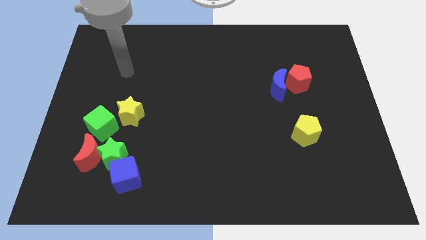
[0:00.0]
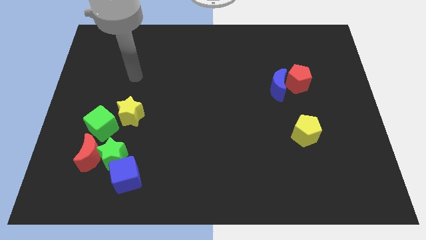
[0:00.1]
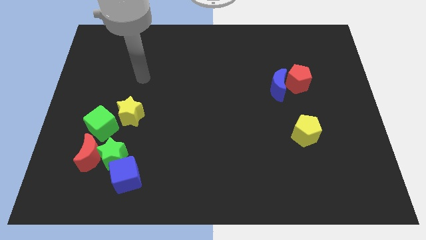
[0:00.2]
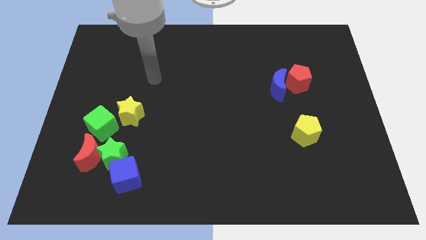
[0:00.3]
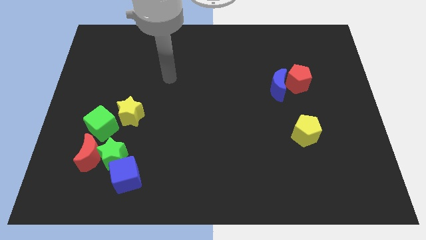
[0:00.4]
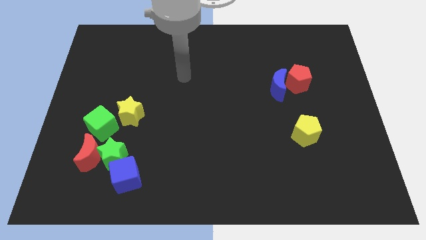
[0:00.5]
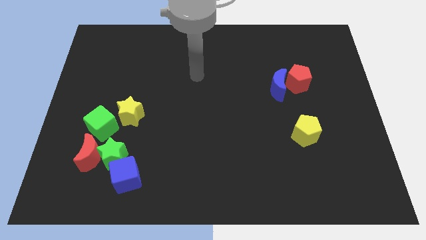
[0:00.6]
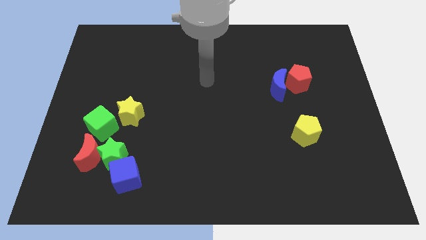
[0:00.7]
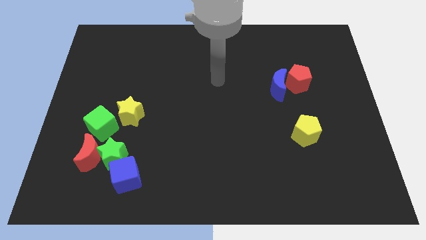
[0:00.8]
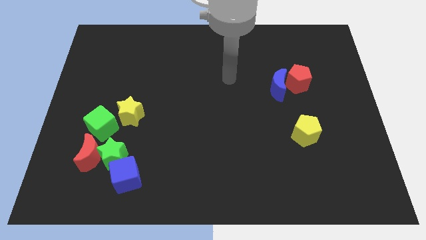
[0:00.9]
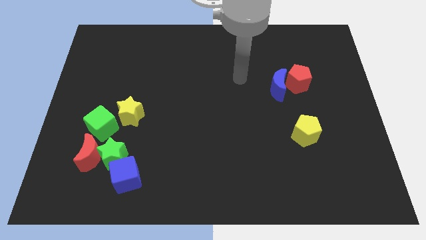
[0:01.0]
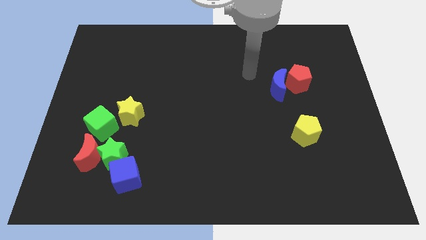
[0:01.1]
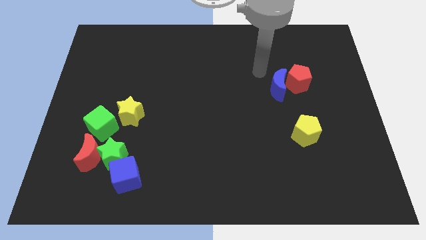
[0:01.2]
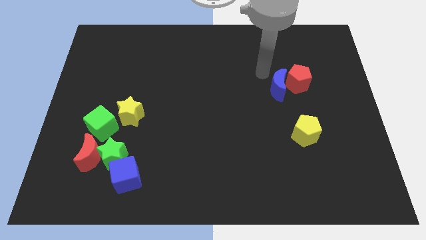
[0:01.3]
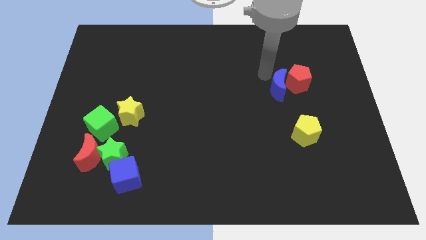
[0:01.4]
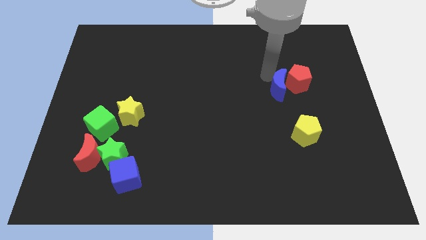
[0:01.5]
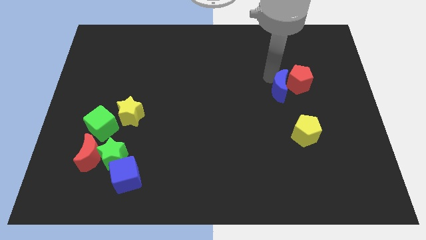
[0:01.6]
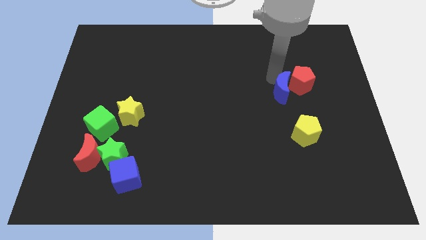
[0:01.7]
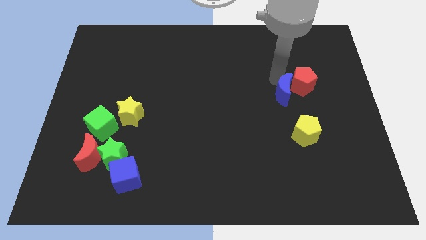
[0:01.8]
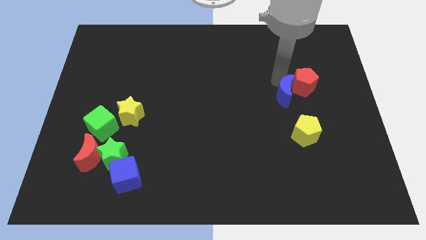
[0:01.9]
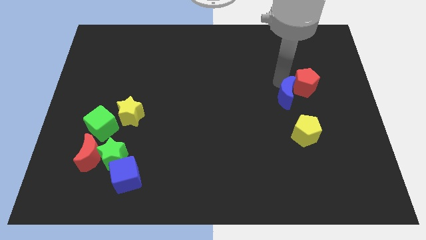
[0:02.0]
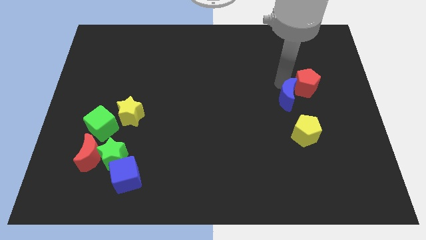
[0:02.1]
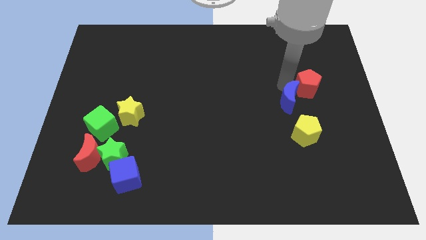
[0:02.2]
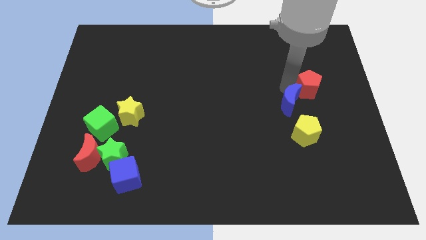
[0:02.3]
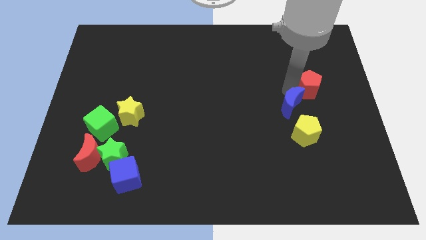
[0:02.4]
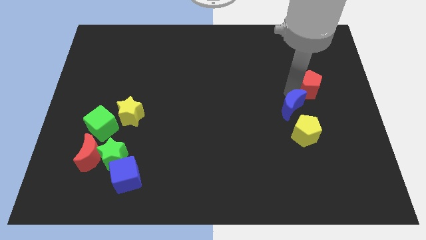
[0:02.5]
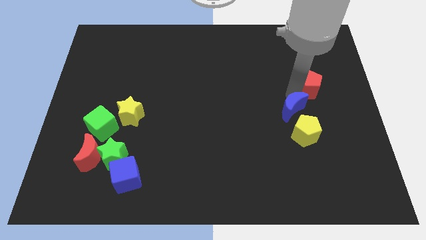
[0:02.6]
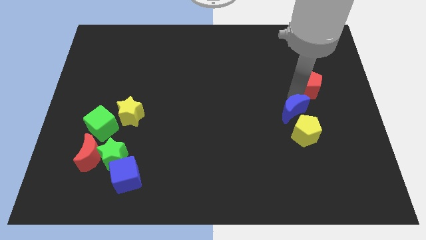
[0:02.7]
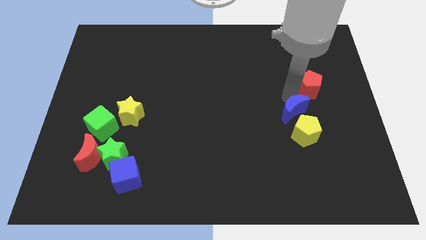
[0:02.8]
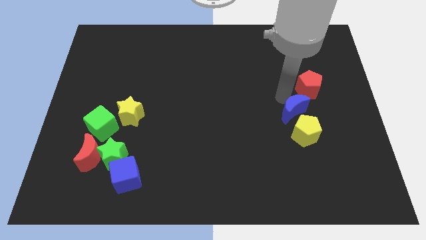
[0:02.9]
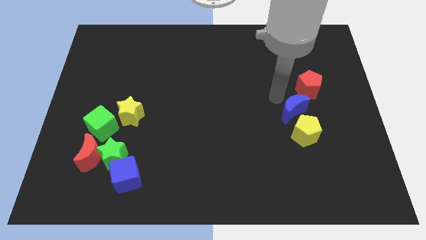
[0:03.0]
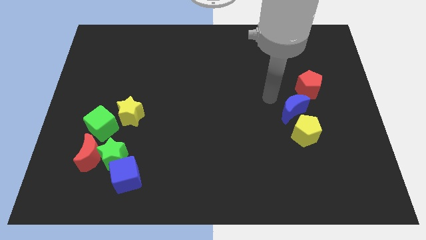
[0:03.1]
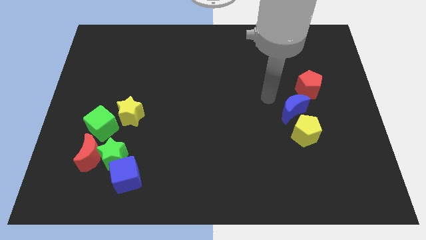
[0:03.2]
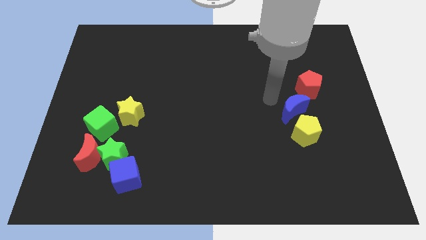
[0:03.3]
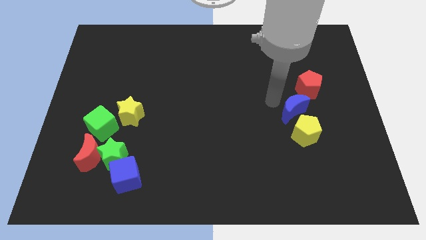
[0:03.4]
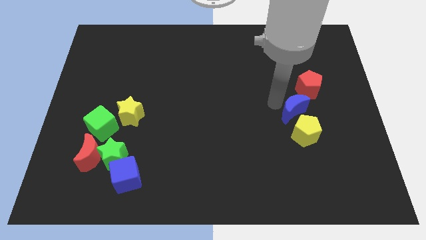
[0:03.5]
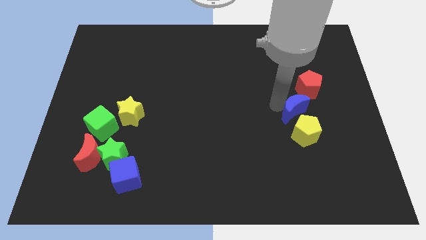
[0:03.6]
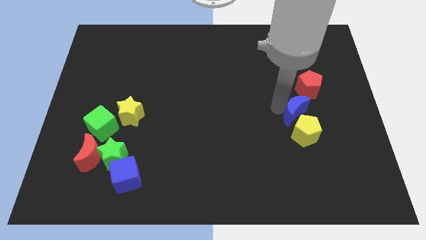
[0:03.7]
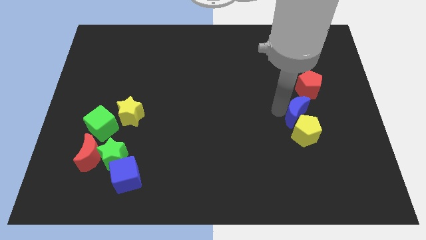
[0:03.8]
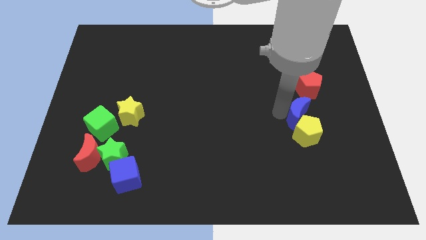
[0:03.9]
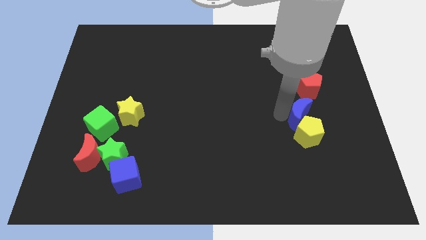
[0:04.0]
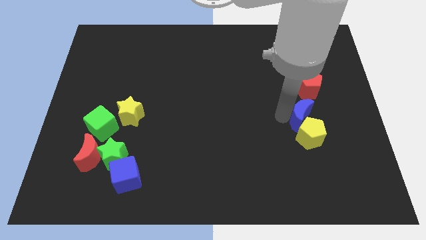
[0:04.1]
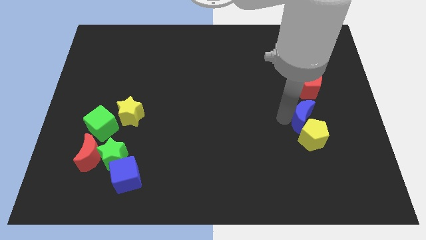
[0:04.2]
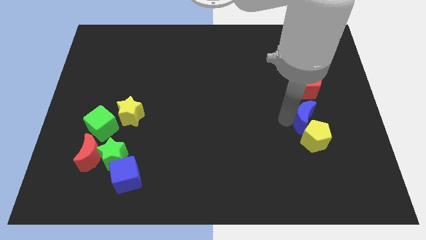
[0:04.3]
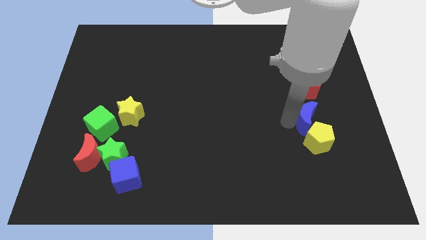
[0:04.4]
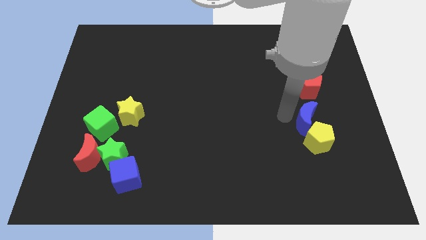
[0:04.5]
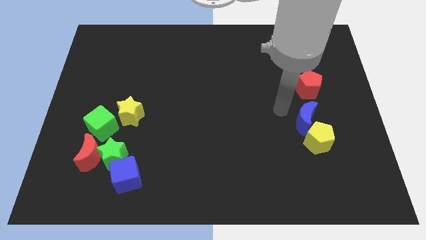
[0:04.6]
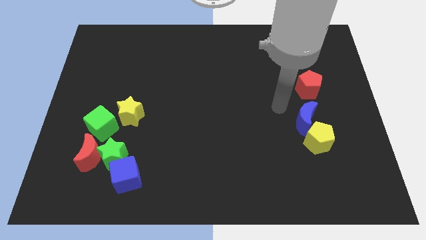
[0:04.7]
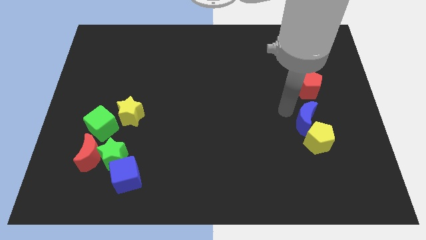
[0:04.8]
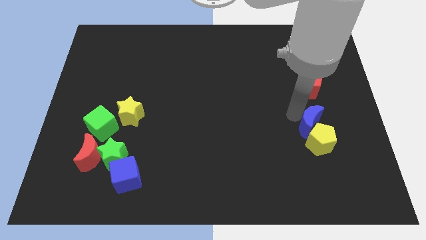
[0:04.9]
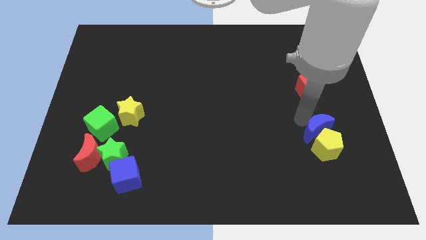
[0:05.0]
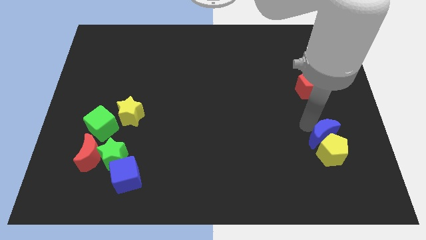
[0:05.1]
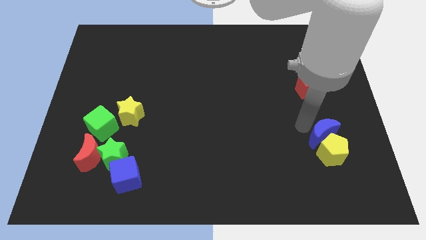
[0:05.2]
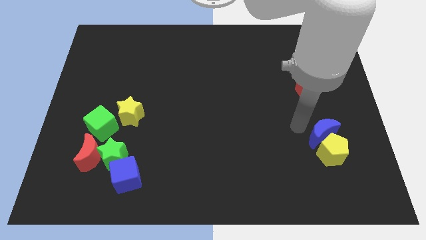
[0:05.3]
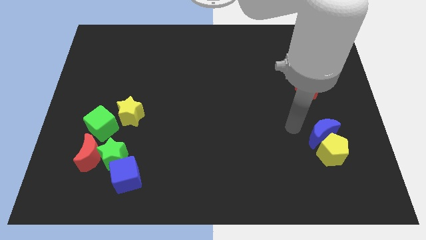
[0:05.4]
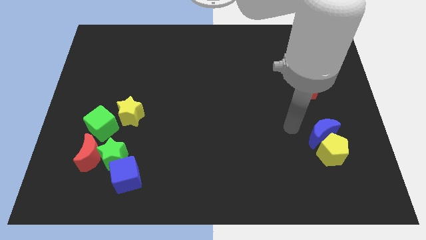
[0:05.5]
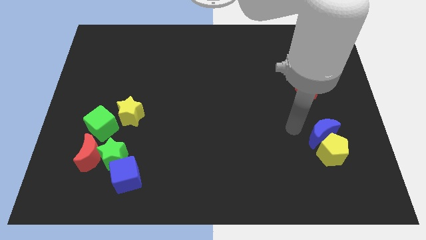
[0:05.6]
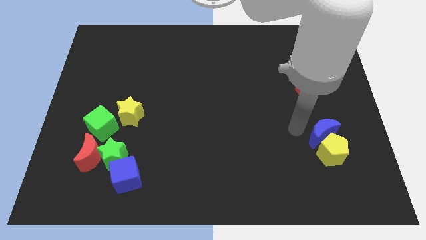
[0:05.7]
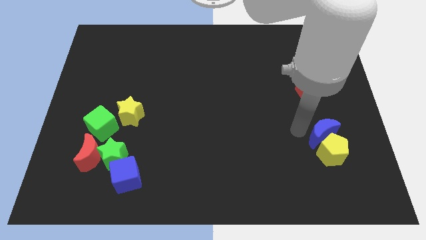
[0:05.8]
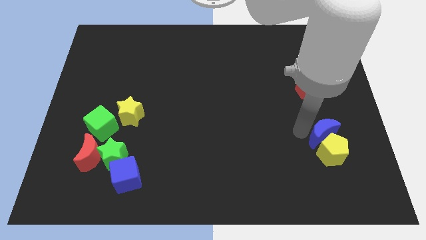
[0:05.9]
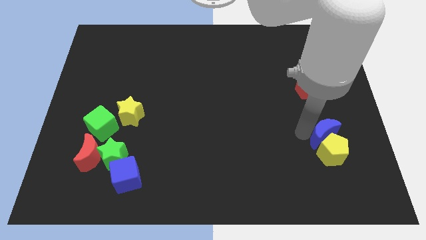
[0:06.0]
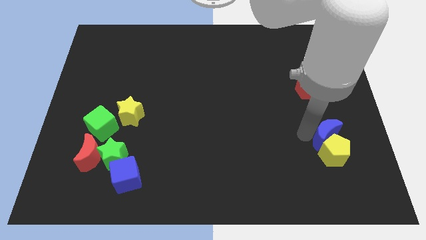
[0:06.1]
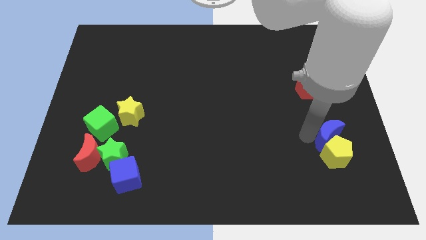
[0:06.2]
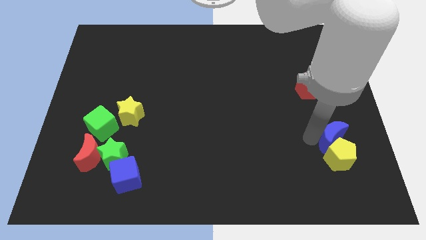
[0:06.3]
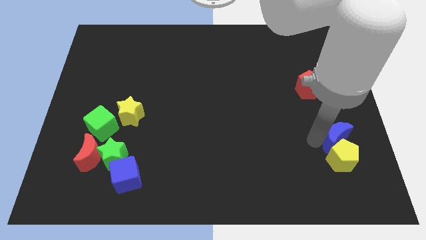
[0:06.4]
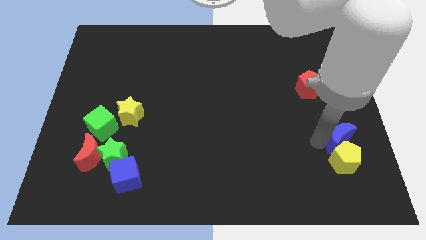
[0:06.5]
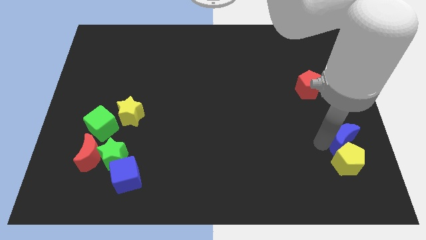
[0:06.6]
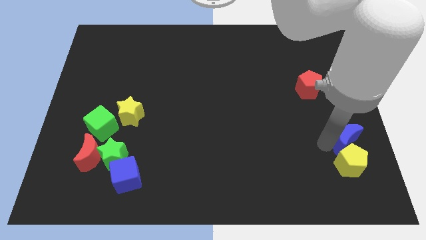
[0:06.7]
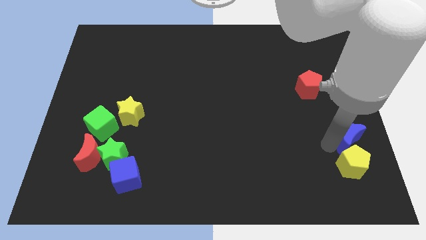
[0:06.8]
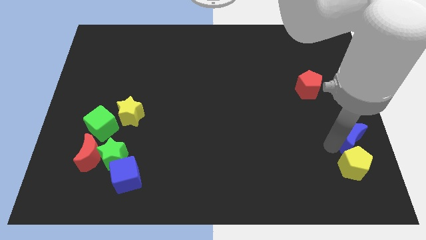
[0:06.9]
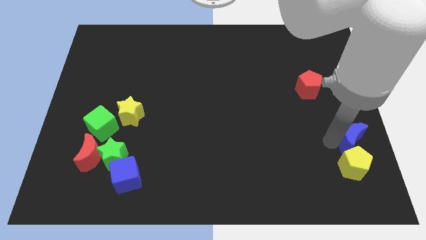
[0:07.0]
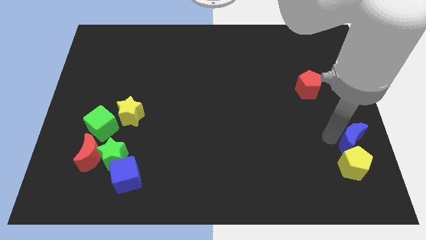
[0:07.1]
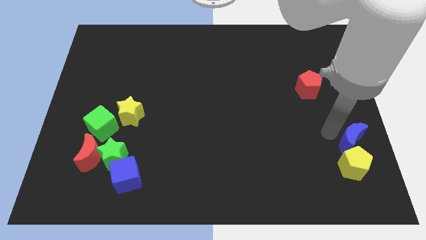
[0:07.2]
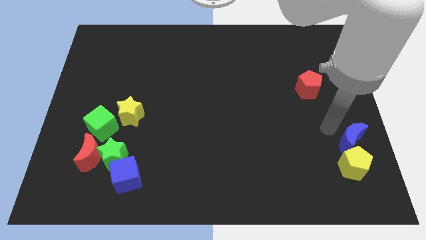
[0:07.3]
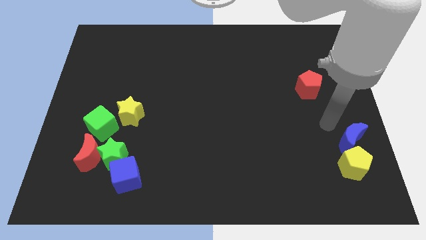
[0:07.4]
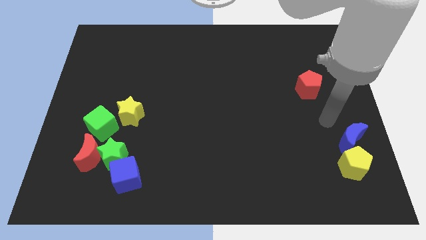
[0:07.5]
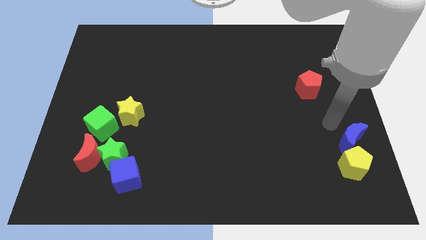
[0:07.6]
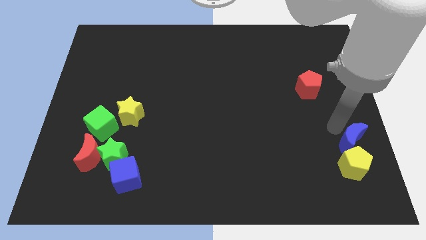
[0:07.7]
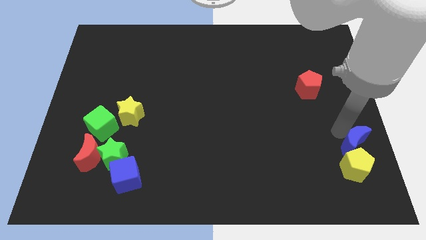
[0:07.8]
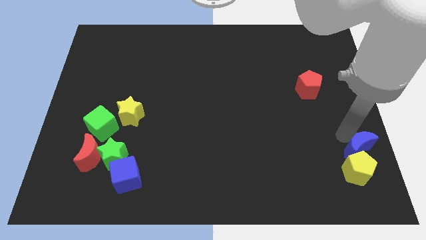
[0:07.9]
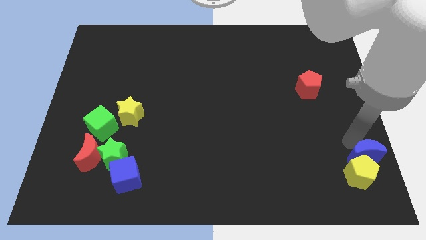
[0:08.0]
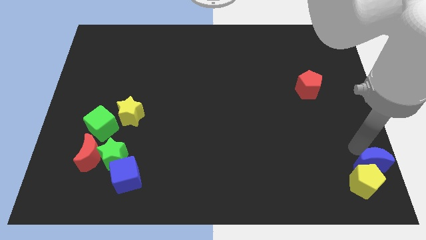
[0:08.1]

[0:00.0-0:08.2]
move the blue moon to the bottom right
